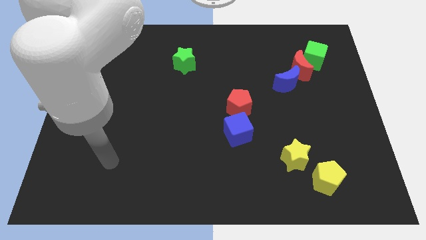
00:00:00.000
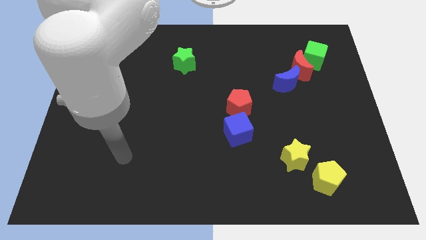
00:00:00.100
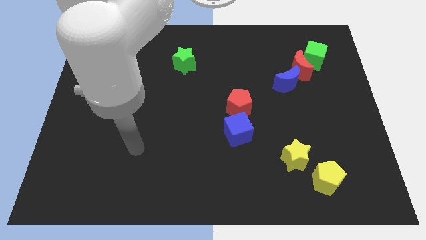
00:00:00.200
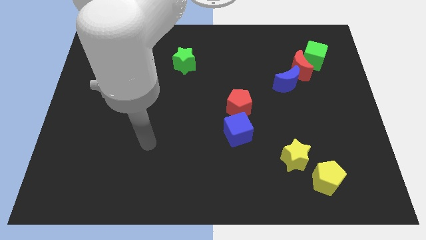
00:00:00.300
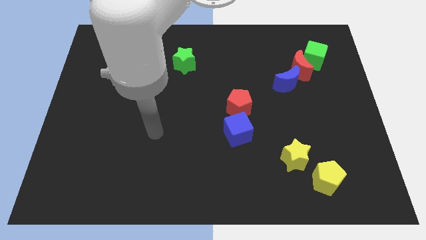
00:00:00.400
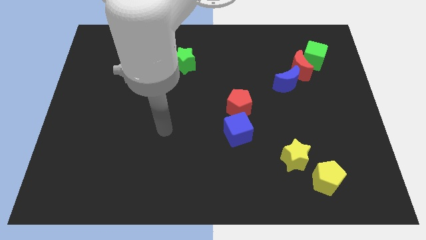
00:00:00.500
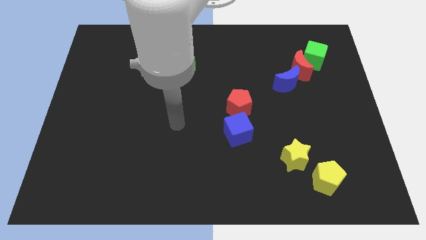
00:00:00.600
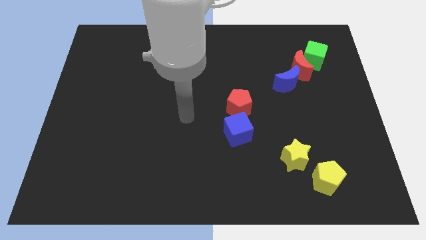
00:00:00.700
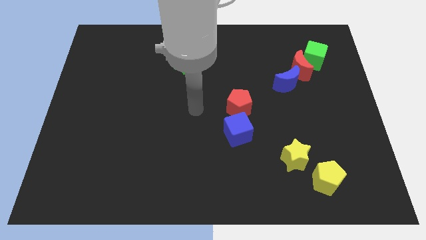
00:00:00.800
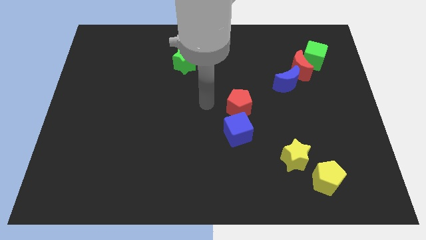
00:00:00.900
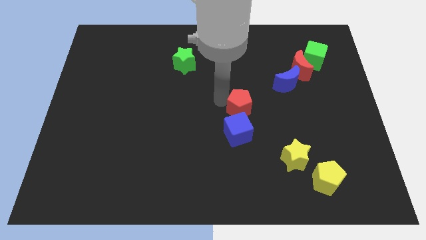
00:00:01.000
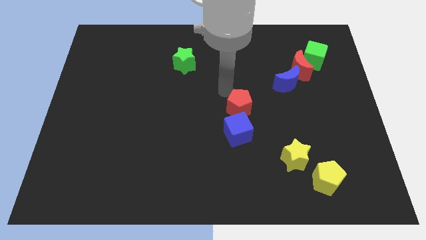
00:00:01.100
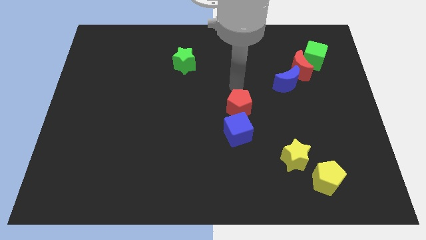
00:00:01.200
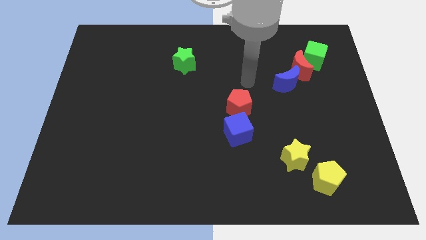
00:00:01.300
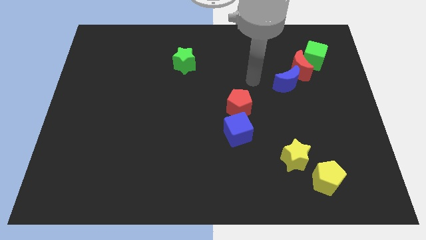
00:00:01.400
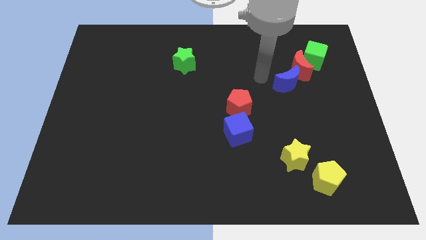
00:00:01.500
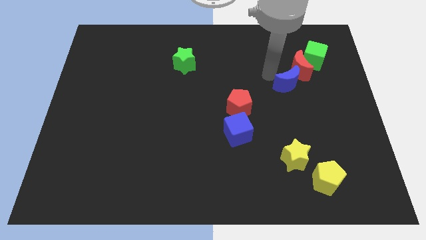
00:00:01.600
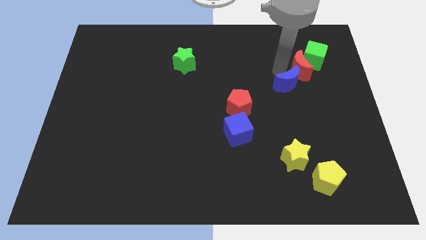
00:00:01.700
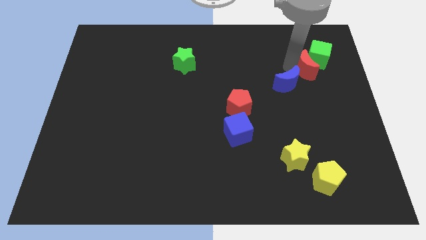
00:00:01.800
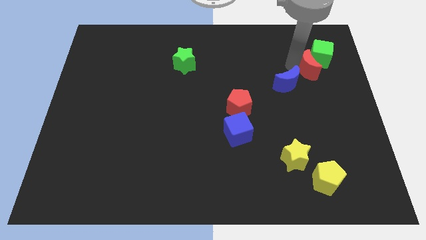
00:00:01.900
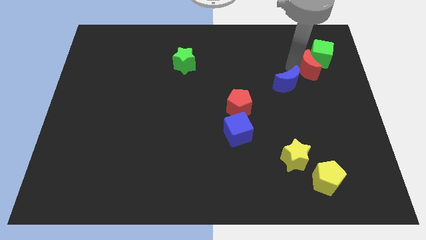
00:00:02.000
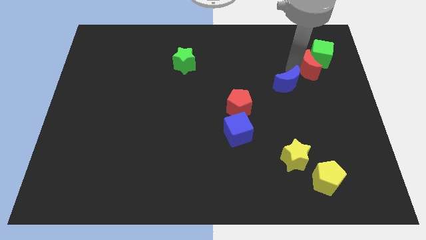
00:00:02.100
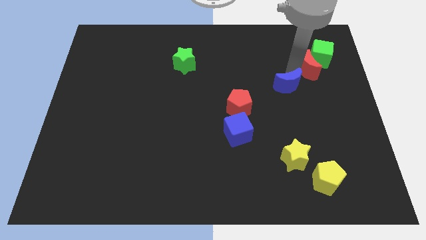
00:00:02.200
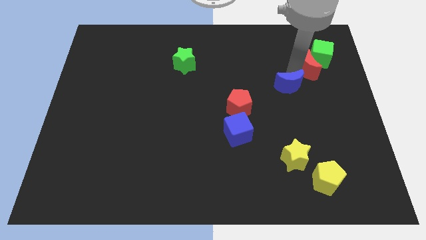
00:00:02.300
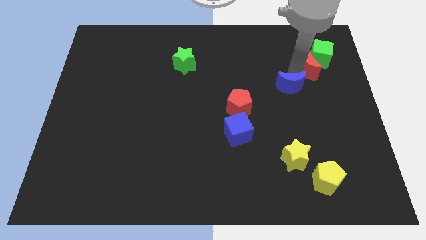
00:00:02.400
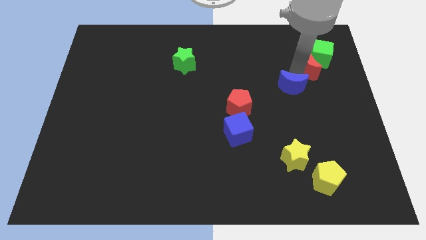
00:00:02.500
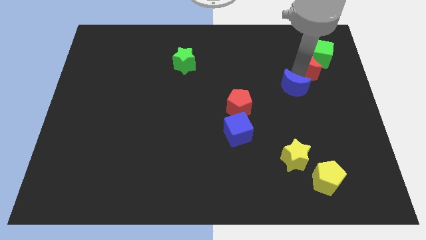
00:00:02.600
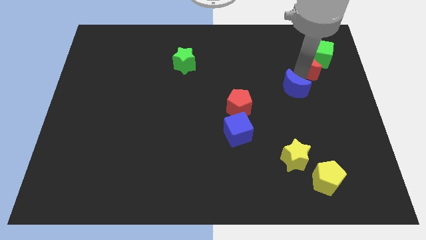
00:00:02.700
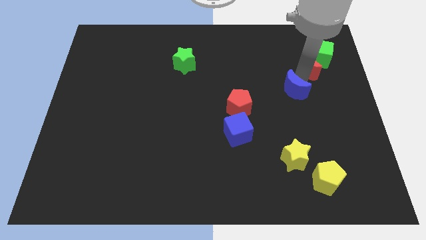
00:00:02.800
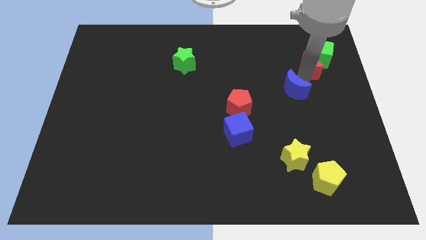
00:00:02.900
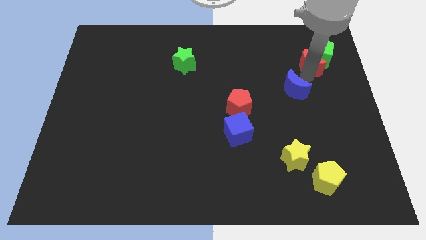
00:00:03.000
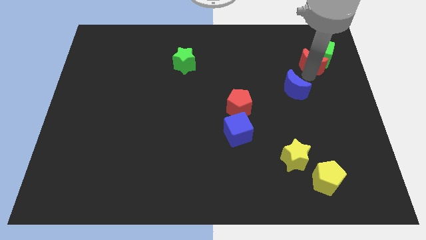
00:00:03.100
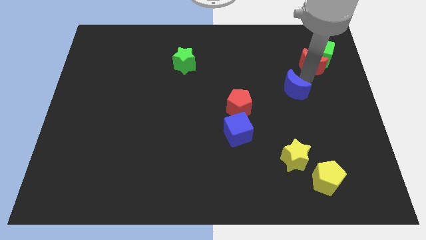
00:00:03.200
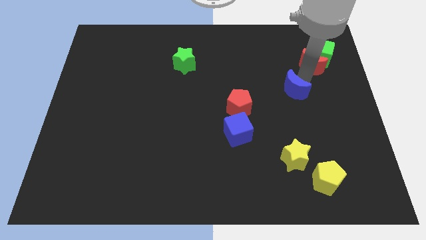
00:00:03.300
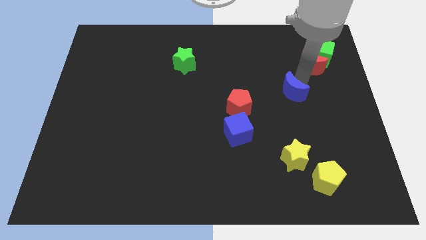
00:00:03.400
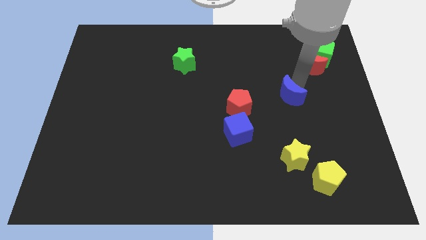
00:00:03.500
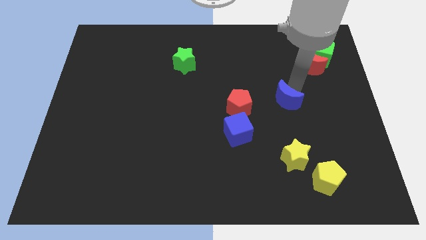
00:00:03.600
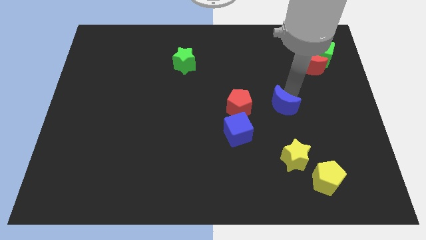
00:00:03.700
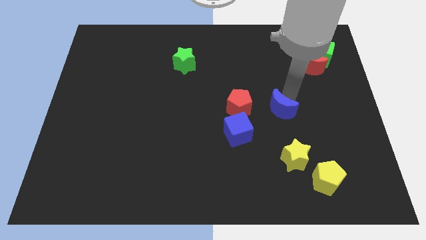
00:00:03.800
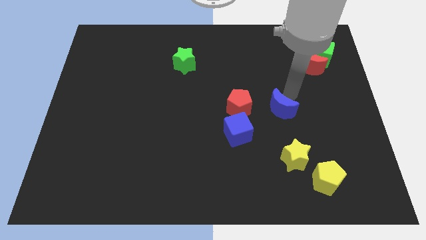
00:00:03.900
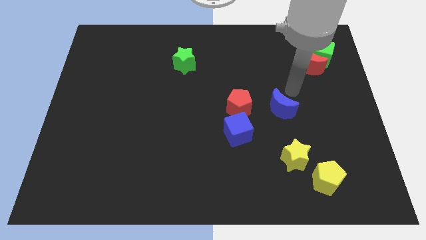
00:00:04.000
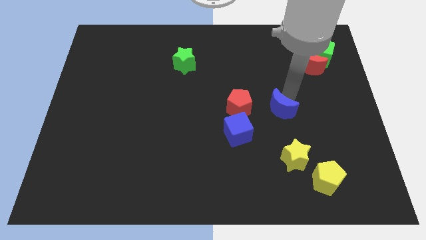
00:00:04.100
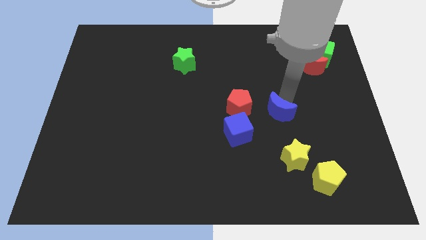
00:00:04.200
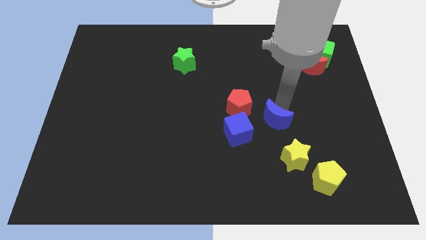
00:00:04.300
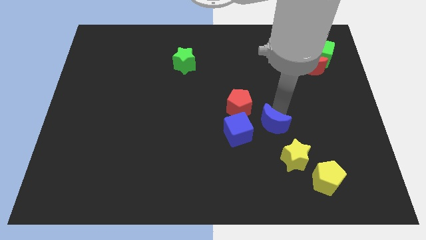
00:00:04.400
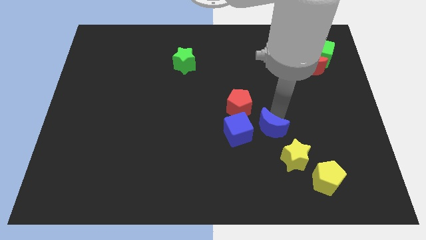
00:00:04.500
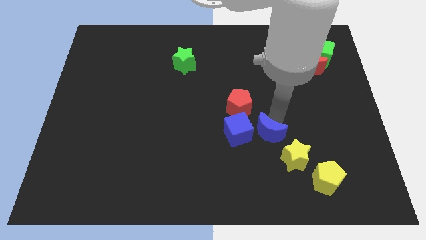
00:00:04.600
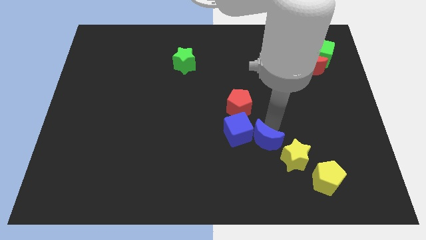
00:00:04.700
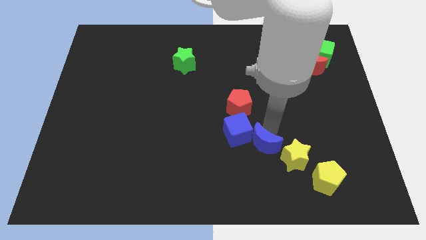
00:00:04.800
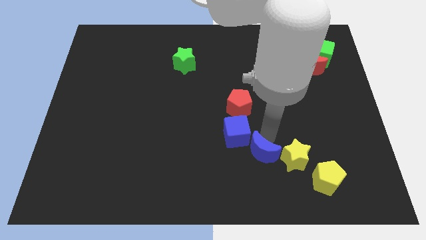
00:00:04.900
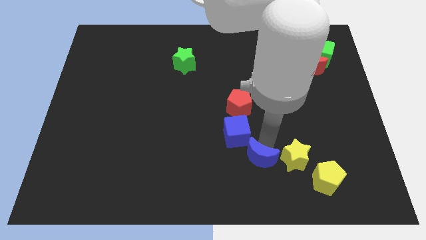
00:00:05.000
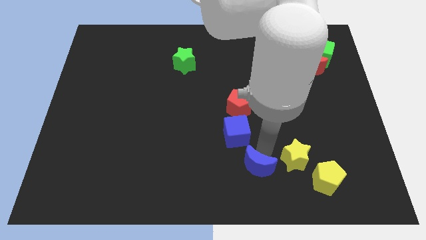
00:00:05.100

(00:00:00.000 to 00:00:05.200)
slide the blue moon to the bottom side

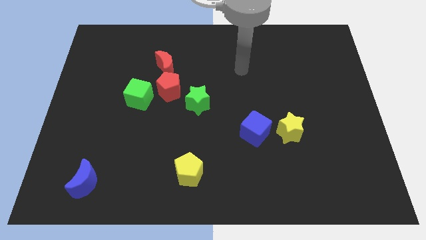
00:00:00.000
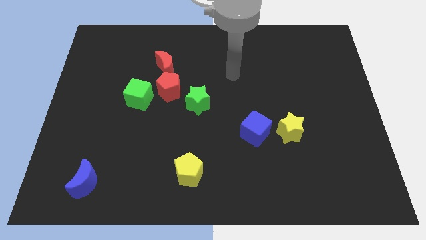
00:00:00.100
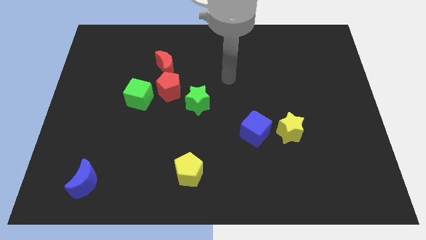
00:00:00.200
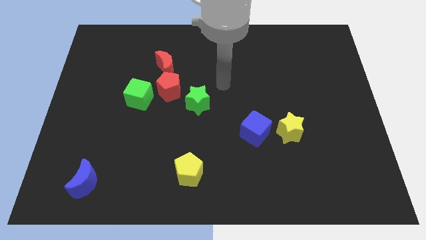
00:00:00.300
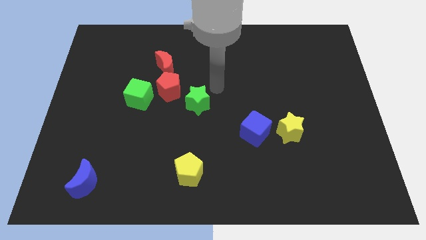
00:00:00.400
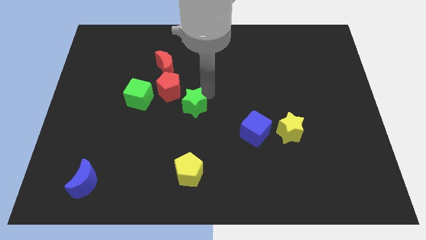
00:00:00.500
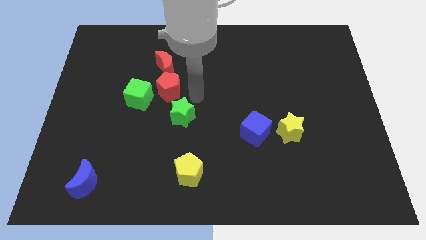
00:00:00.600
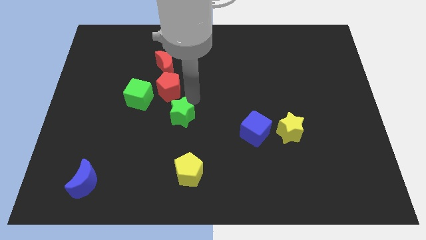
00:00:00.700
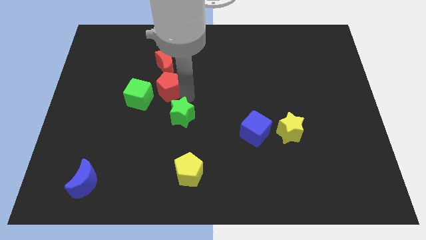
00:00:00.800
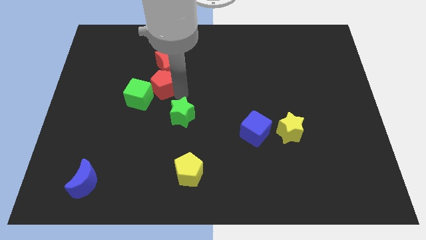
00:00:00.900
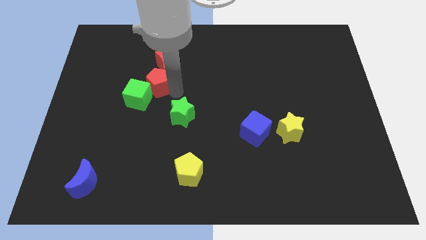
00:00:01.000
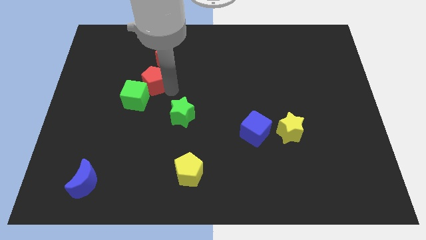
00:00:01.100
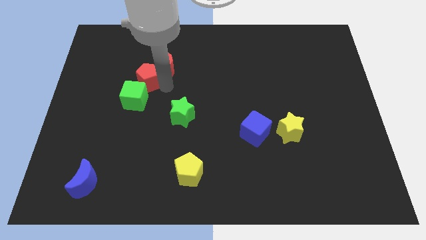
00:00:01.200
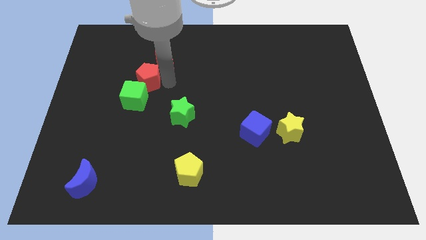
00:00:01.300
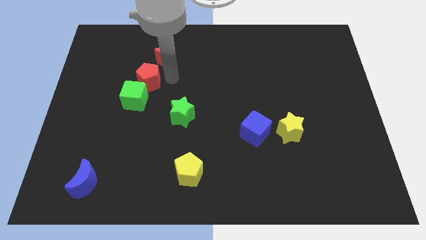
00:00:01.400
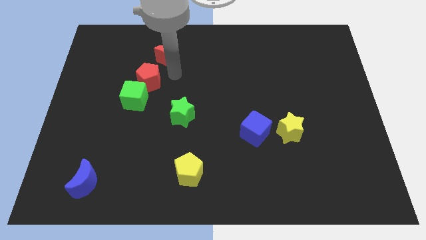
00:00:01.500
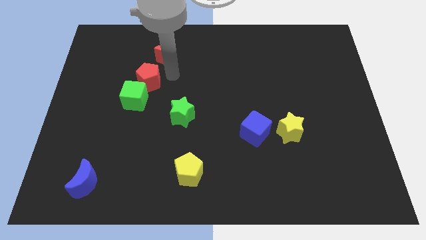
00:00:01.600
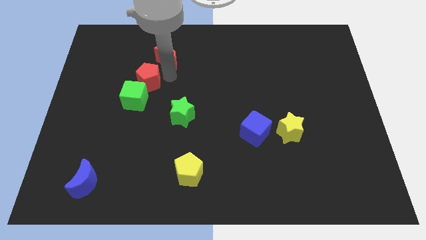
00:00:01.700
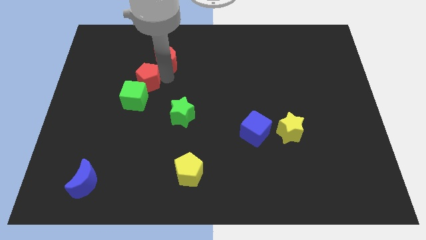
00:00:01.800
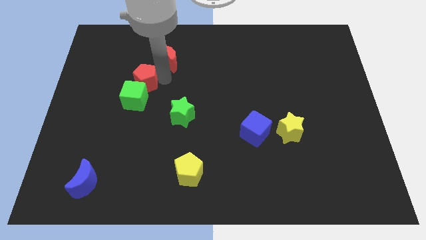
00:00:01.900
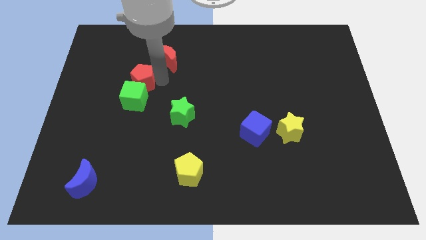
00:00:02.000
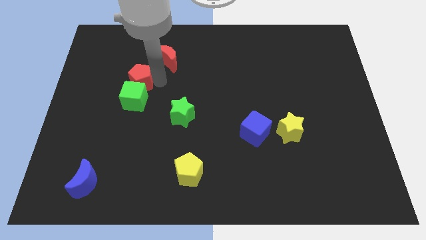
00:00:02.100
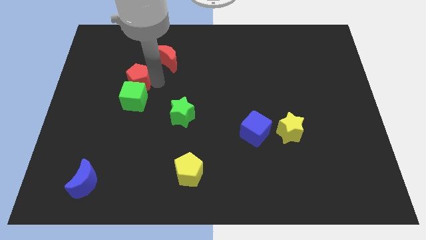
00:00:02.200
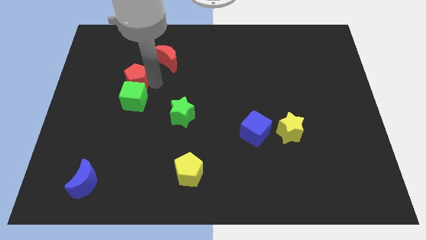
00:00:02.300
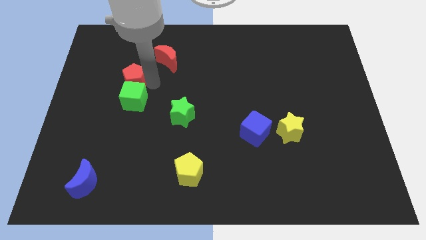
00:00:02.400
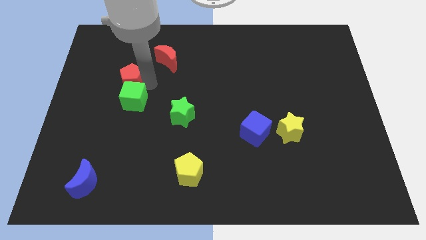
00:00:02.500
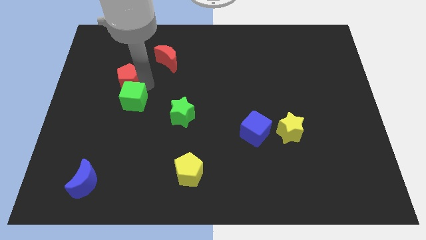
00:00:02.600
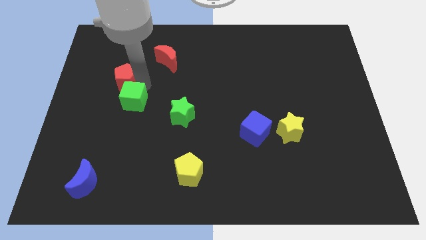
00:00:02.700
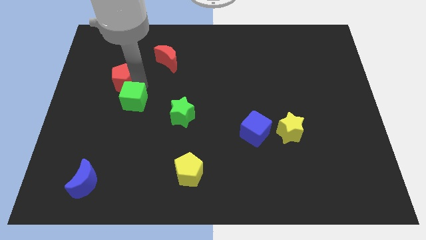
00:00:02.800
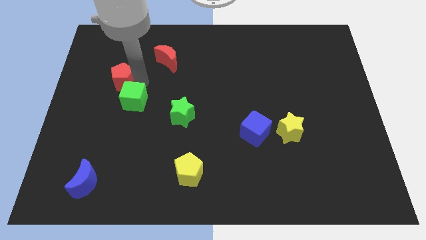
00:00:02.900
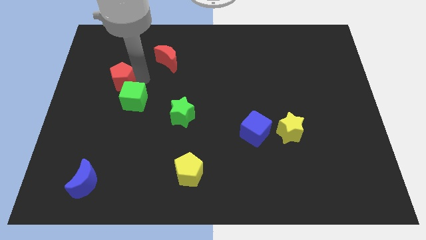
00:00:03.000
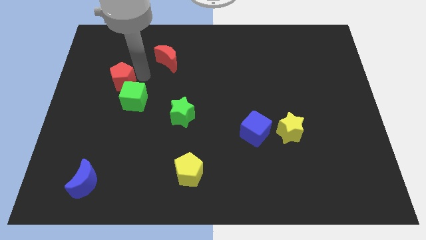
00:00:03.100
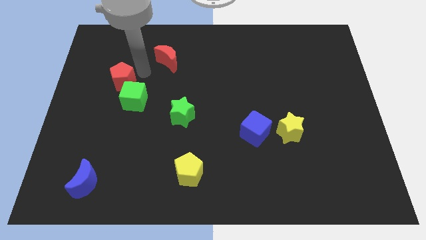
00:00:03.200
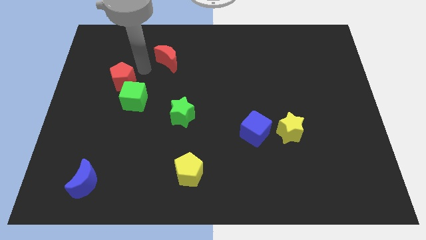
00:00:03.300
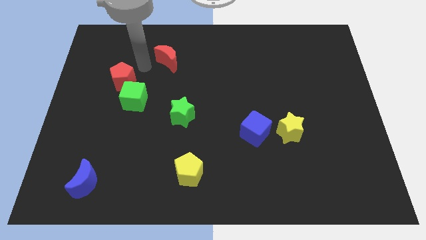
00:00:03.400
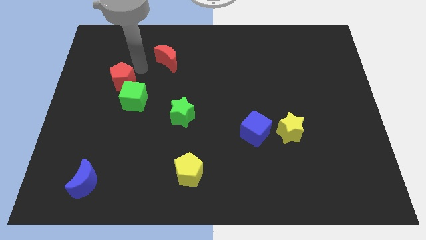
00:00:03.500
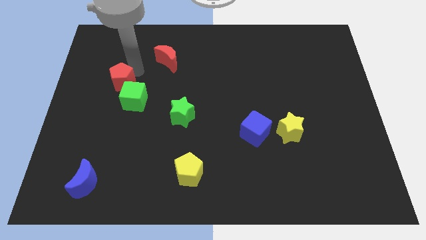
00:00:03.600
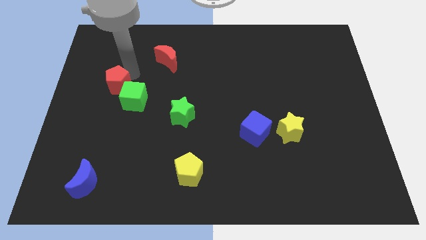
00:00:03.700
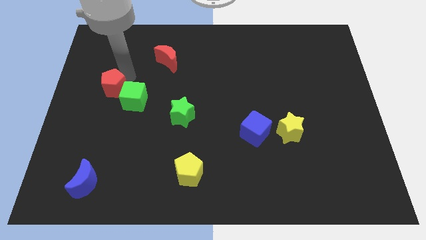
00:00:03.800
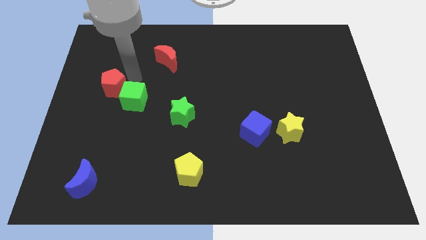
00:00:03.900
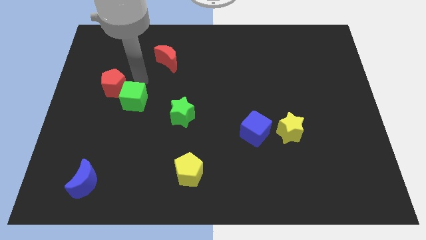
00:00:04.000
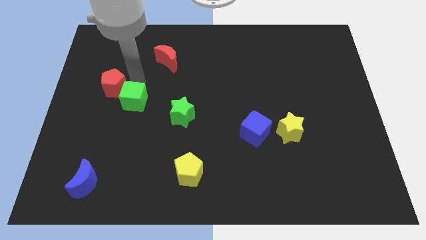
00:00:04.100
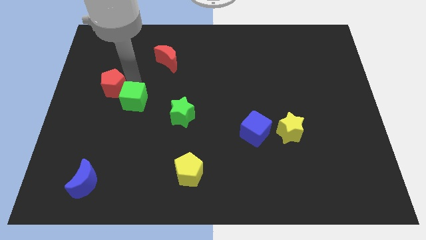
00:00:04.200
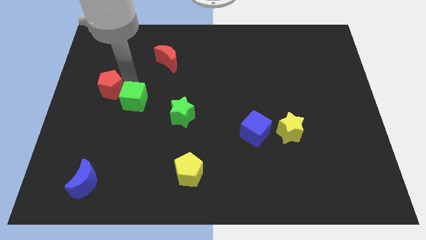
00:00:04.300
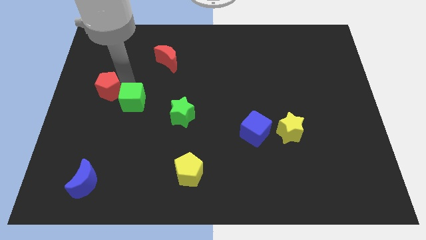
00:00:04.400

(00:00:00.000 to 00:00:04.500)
push the red pentagon to the center left
